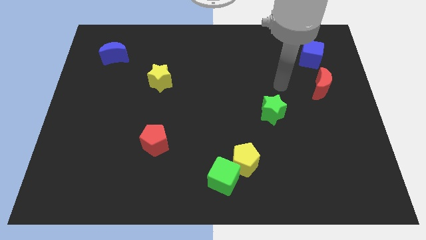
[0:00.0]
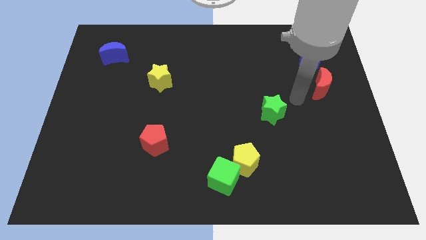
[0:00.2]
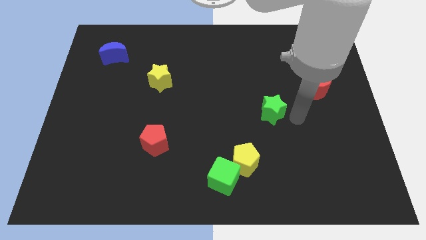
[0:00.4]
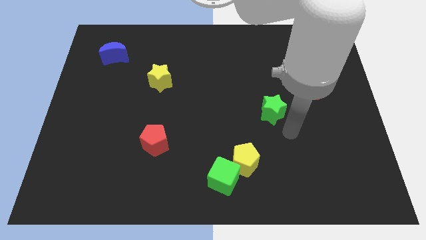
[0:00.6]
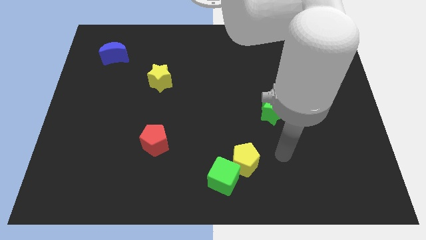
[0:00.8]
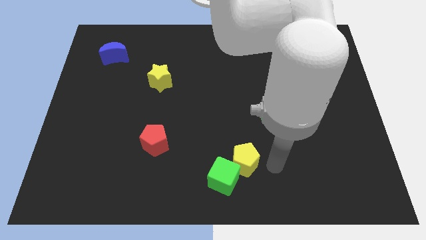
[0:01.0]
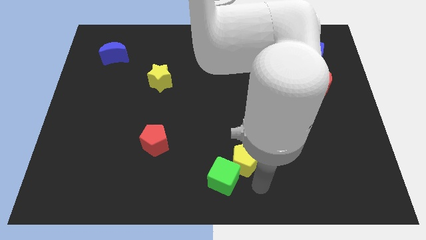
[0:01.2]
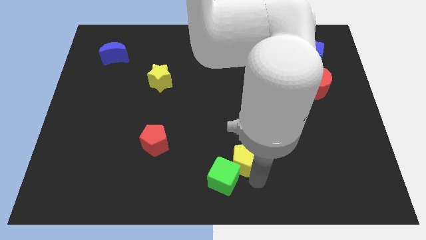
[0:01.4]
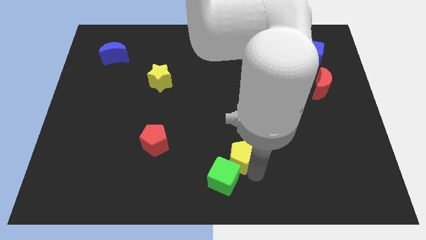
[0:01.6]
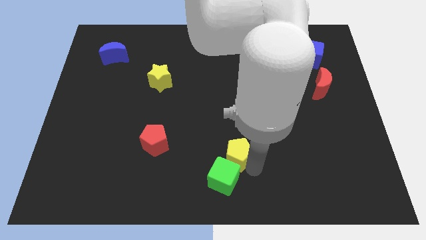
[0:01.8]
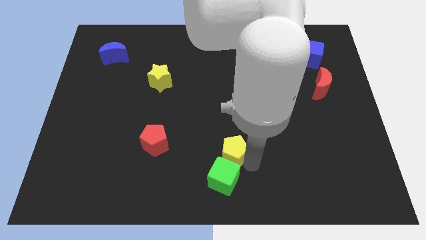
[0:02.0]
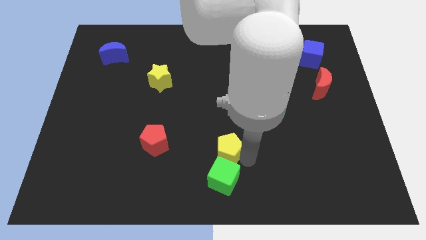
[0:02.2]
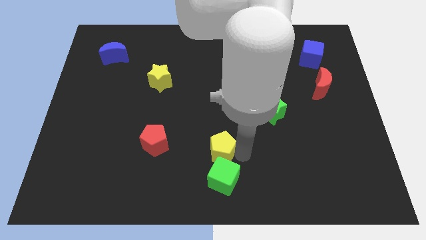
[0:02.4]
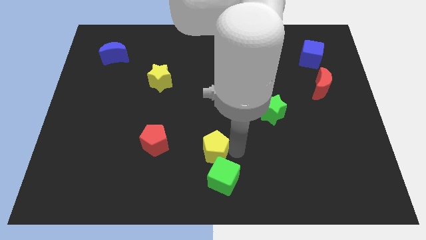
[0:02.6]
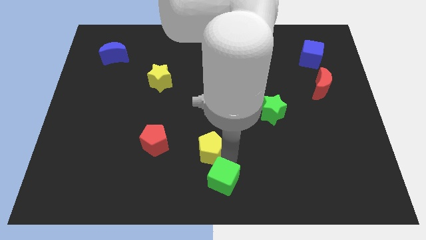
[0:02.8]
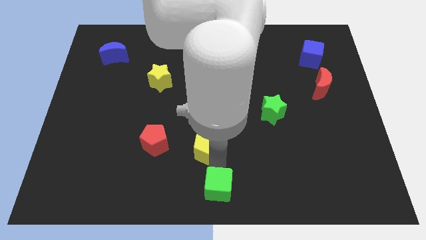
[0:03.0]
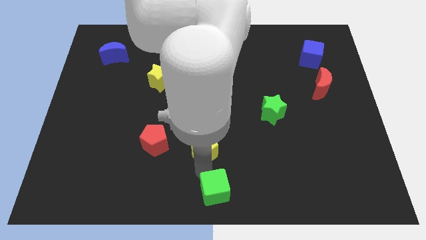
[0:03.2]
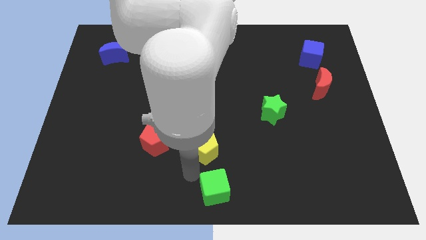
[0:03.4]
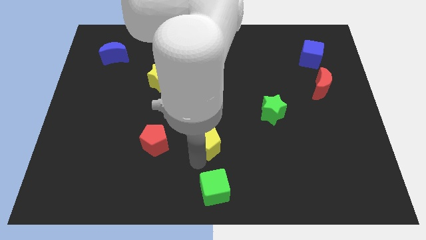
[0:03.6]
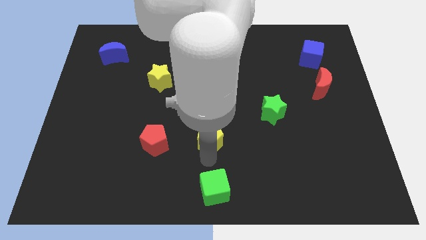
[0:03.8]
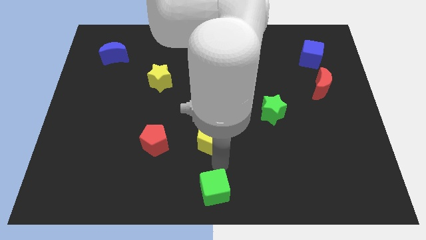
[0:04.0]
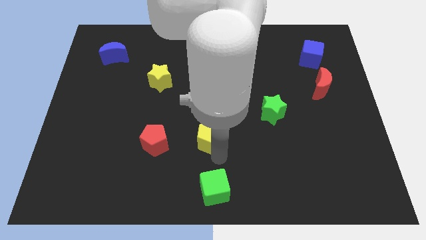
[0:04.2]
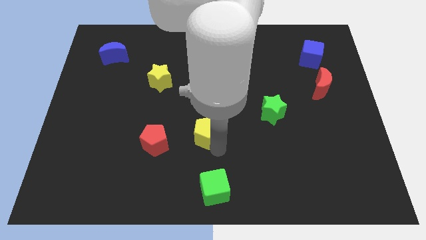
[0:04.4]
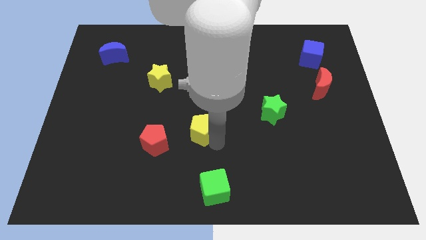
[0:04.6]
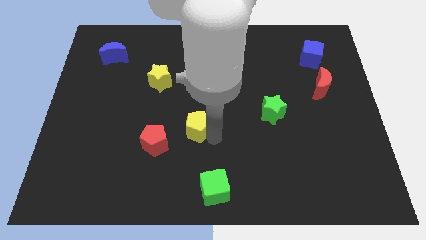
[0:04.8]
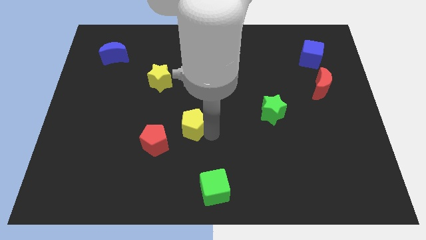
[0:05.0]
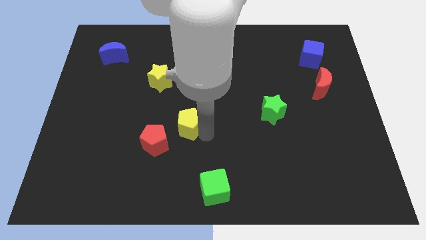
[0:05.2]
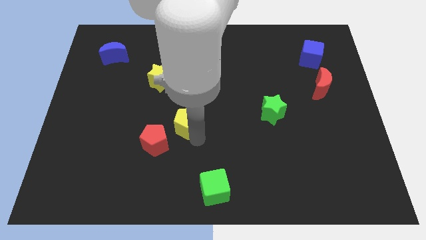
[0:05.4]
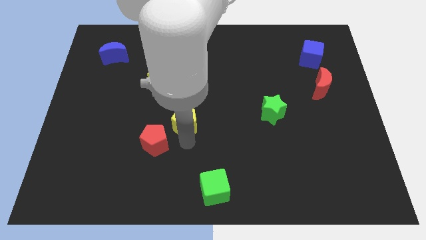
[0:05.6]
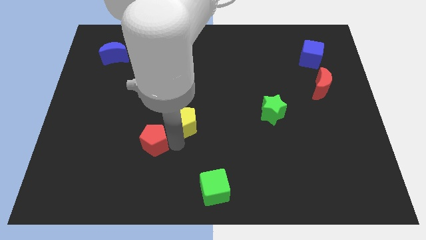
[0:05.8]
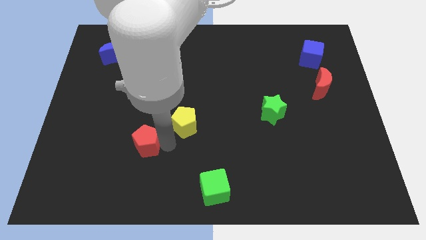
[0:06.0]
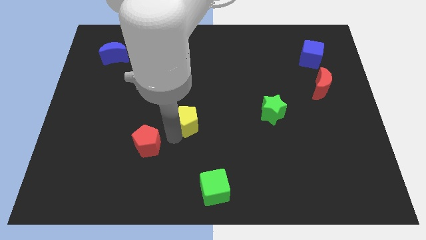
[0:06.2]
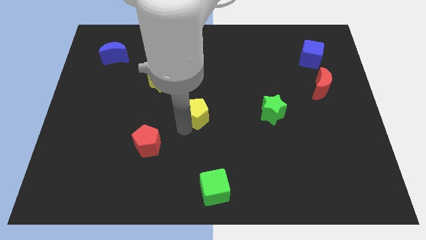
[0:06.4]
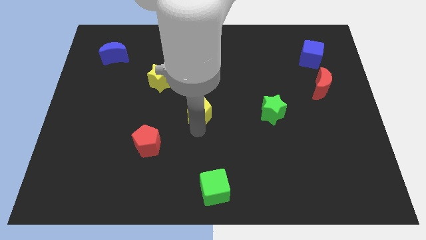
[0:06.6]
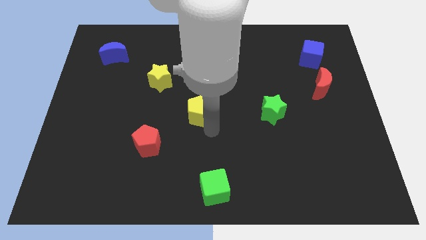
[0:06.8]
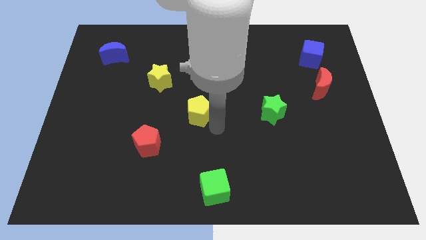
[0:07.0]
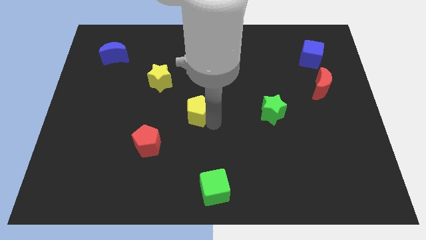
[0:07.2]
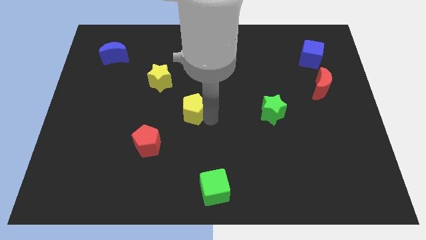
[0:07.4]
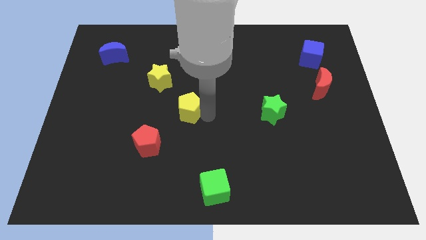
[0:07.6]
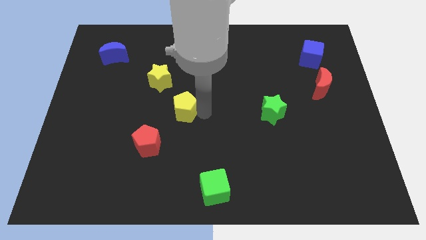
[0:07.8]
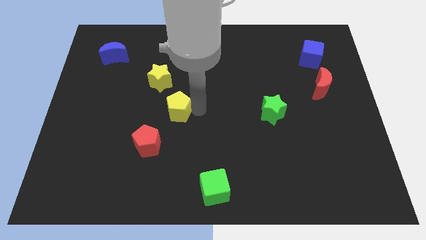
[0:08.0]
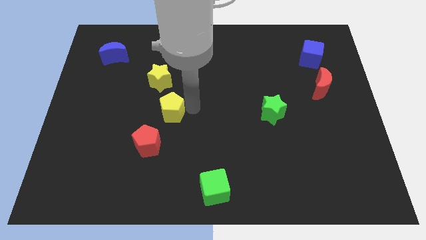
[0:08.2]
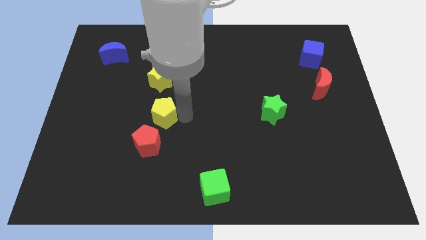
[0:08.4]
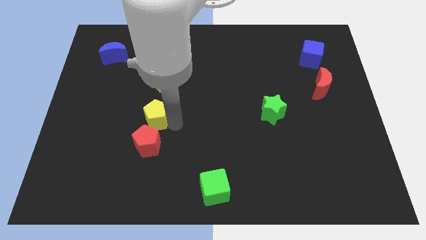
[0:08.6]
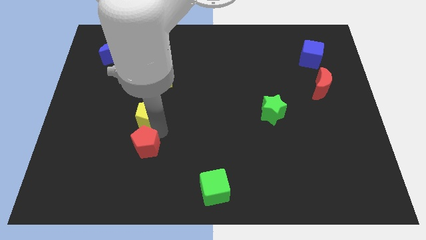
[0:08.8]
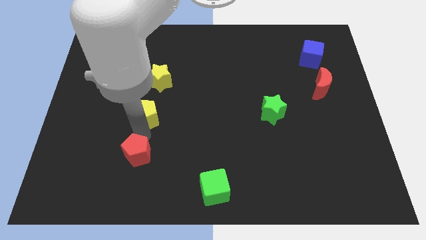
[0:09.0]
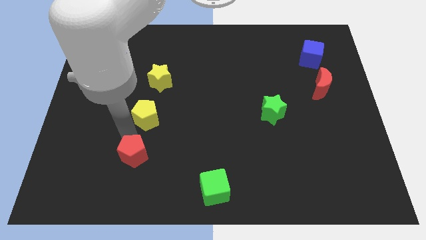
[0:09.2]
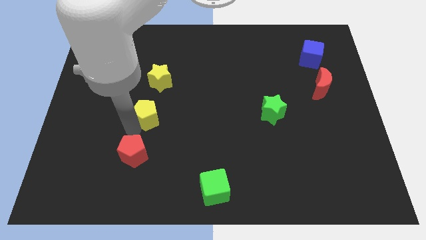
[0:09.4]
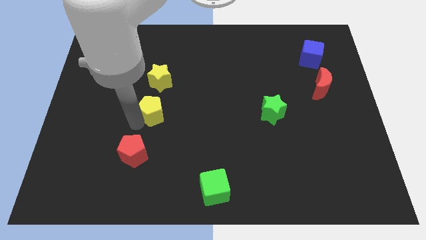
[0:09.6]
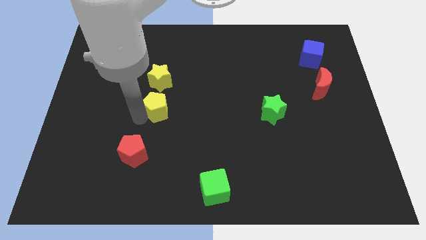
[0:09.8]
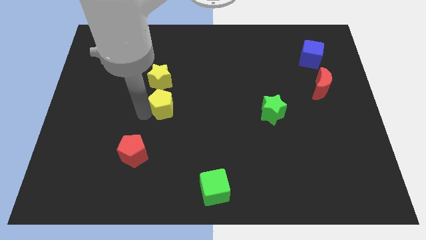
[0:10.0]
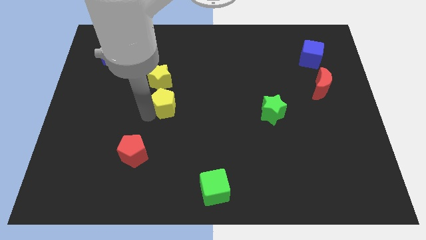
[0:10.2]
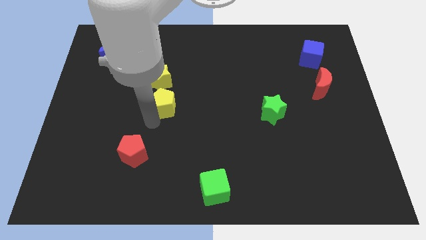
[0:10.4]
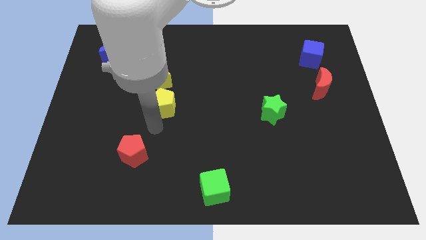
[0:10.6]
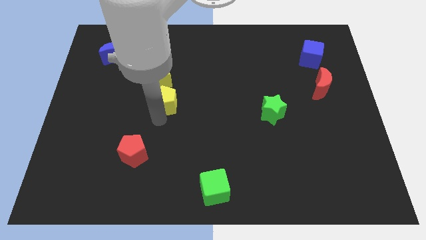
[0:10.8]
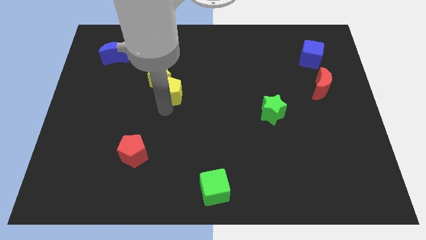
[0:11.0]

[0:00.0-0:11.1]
push the yellow pentagon towards the yellow star

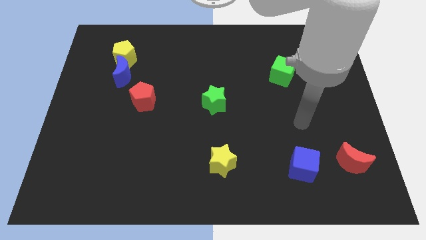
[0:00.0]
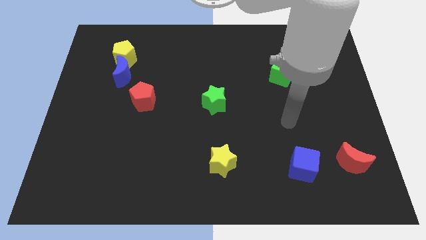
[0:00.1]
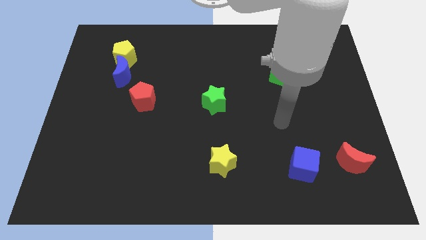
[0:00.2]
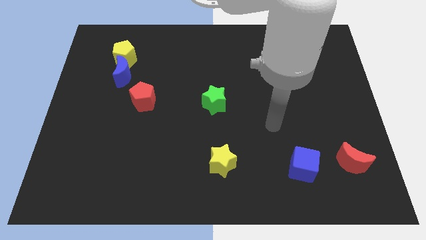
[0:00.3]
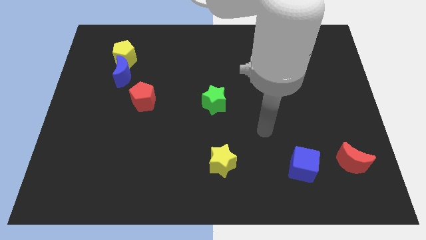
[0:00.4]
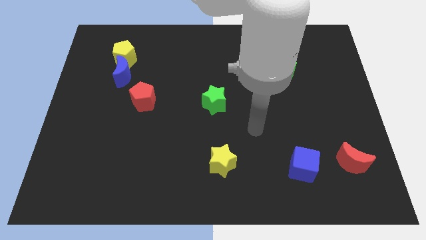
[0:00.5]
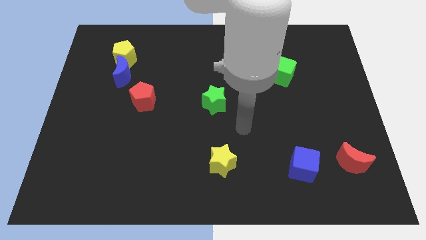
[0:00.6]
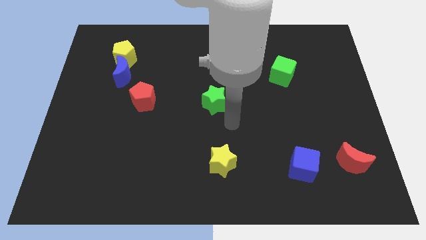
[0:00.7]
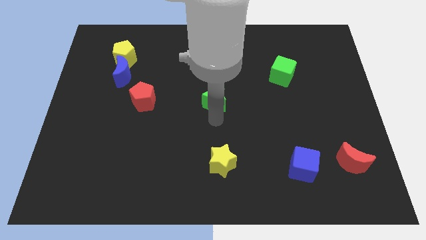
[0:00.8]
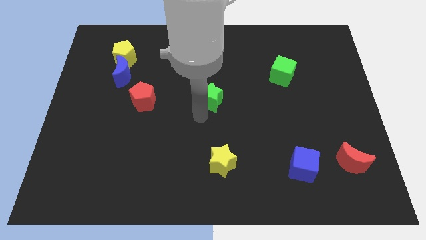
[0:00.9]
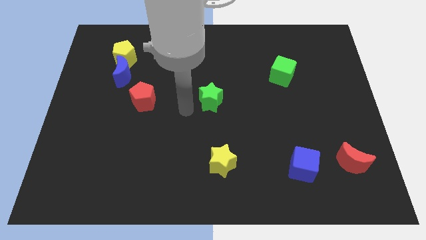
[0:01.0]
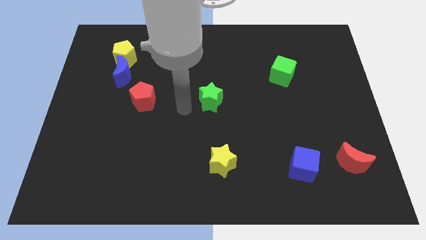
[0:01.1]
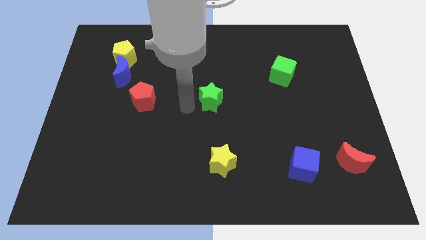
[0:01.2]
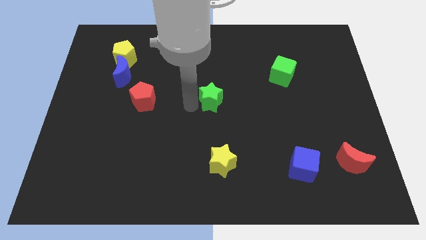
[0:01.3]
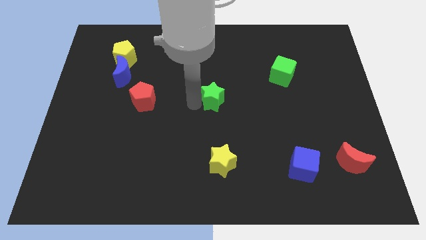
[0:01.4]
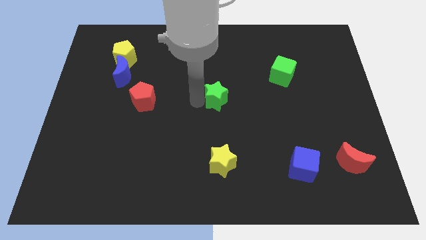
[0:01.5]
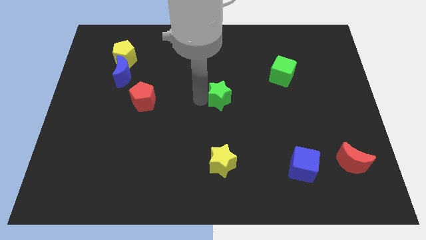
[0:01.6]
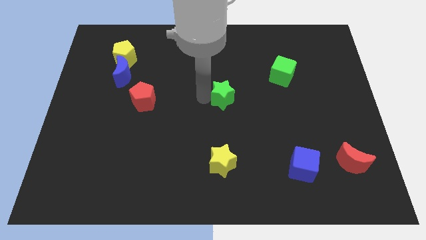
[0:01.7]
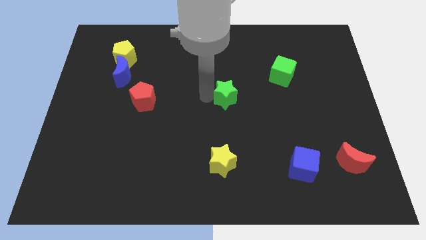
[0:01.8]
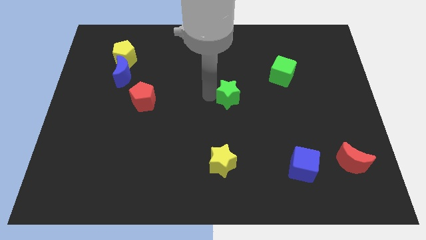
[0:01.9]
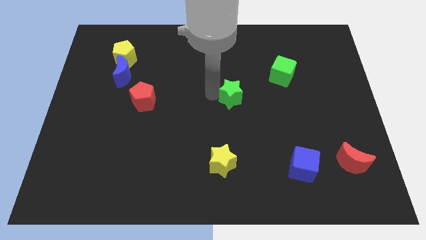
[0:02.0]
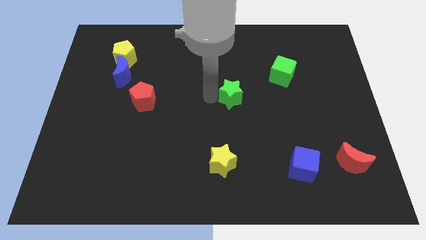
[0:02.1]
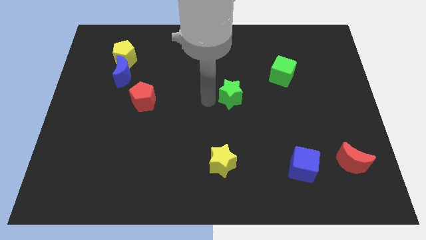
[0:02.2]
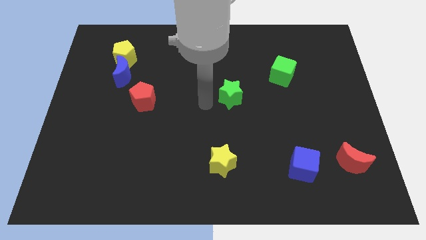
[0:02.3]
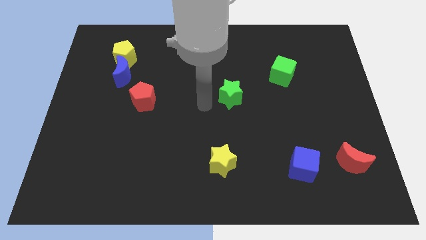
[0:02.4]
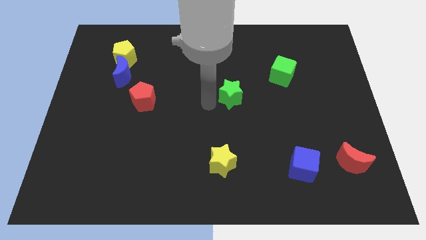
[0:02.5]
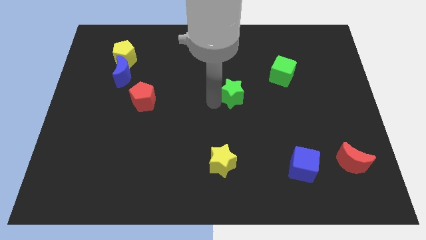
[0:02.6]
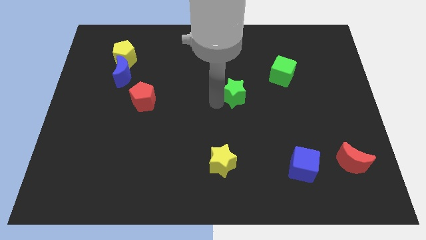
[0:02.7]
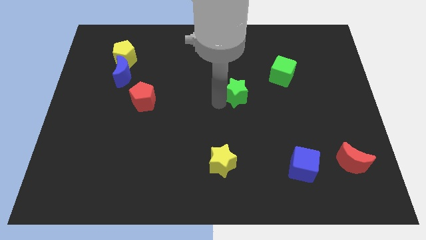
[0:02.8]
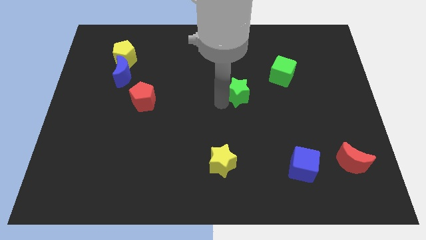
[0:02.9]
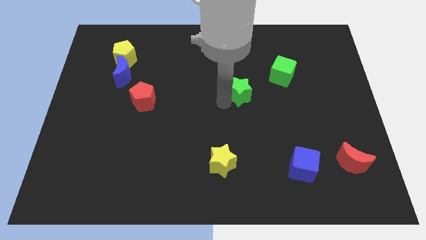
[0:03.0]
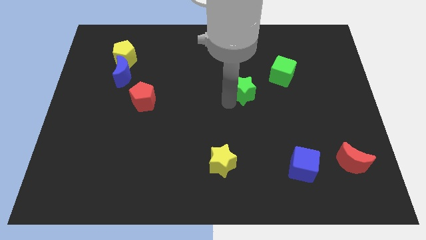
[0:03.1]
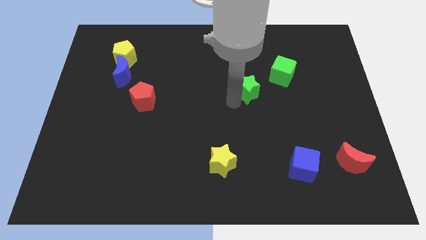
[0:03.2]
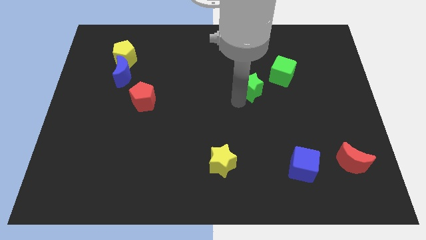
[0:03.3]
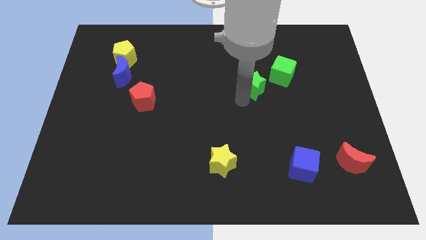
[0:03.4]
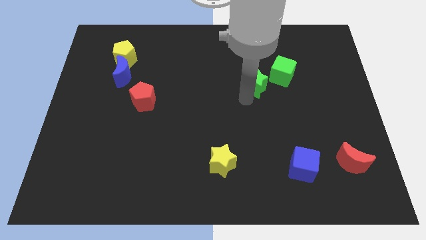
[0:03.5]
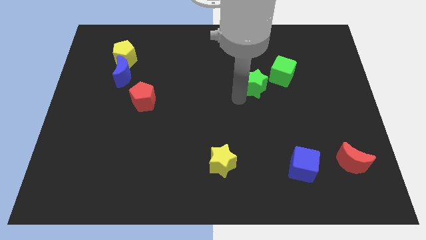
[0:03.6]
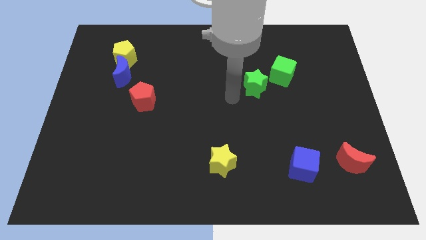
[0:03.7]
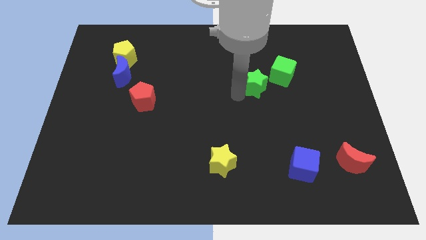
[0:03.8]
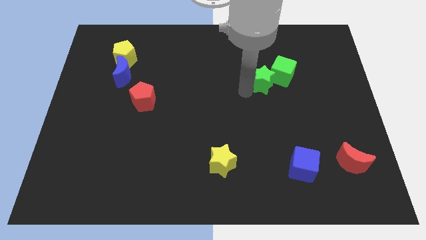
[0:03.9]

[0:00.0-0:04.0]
slide the green star close to the green cube
